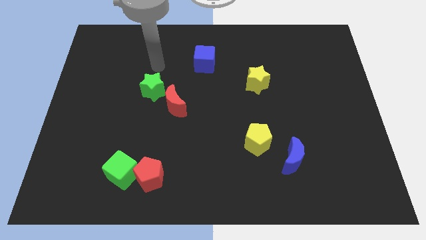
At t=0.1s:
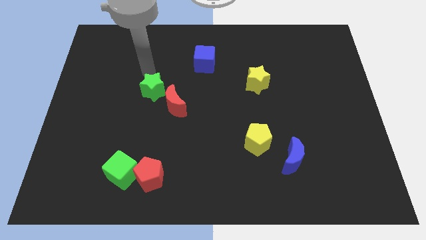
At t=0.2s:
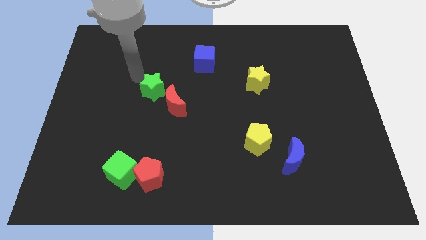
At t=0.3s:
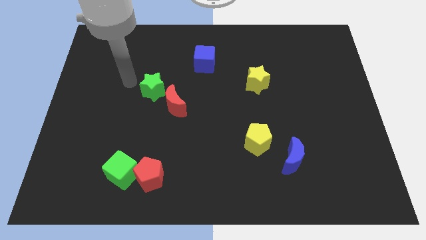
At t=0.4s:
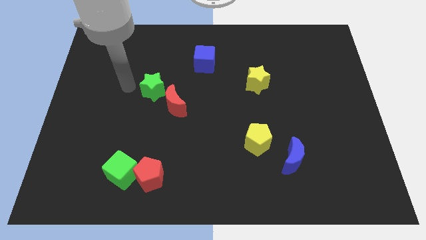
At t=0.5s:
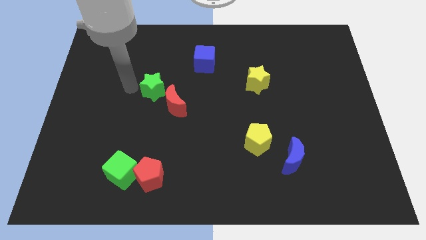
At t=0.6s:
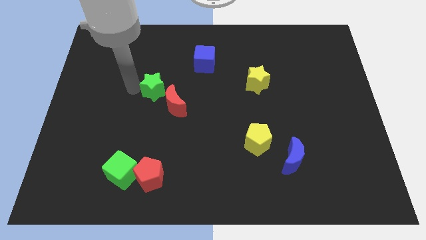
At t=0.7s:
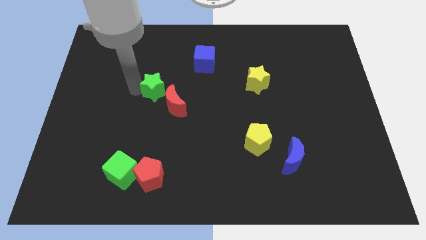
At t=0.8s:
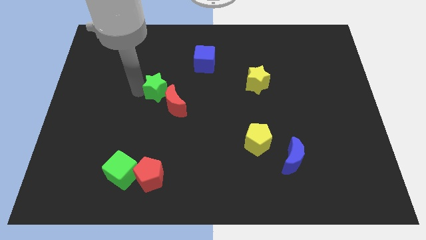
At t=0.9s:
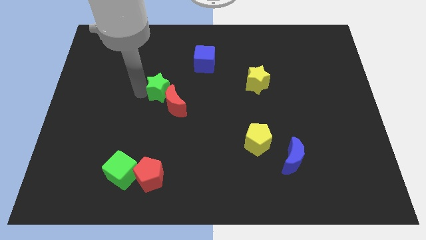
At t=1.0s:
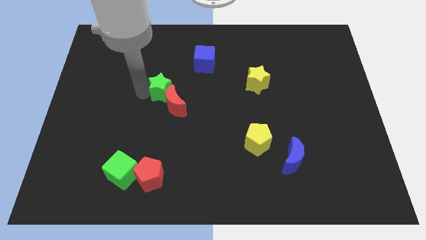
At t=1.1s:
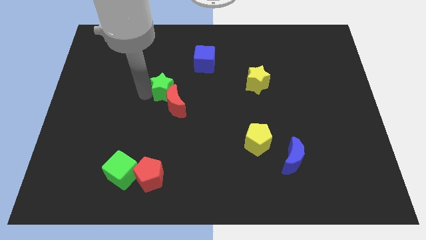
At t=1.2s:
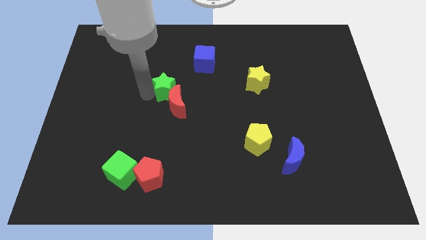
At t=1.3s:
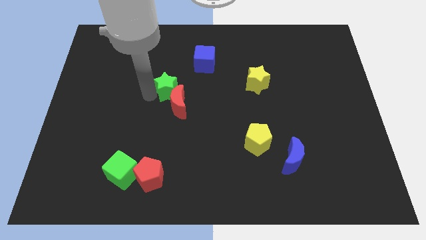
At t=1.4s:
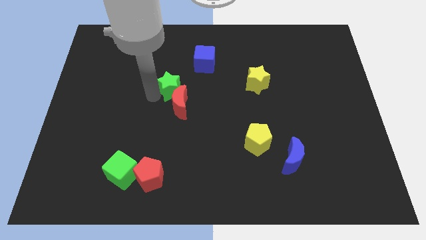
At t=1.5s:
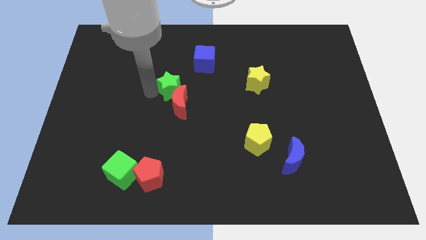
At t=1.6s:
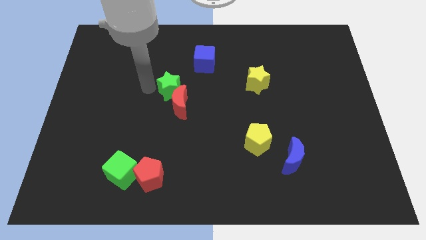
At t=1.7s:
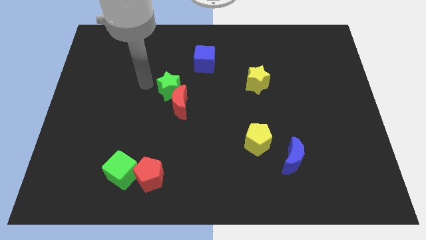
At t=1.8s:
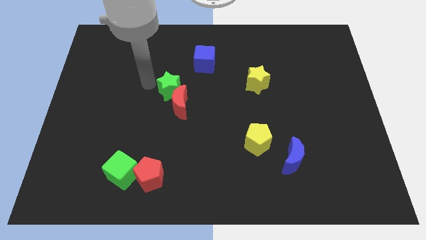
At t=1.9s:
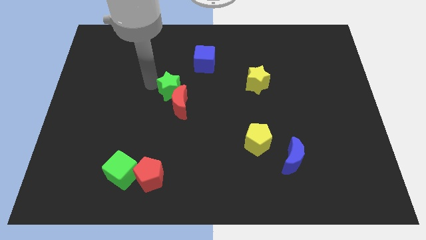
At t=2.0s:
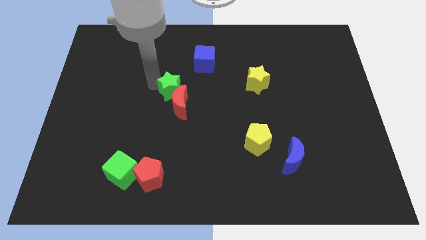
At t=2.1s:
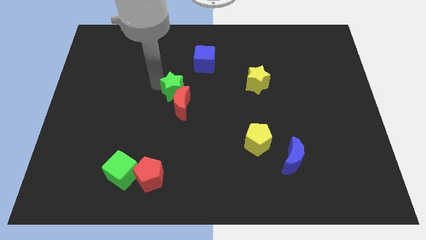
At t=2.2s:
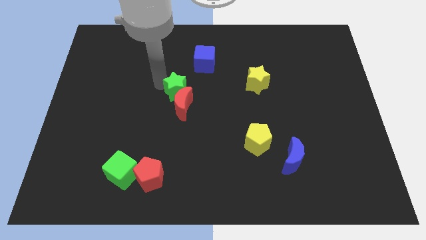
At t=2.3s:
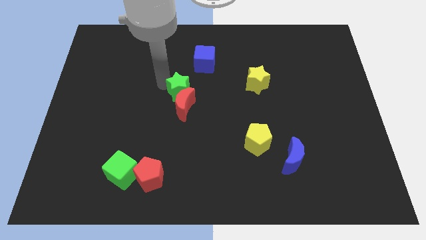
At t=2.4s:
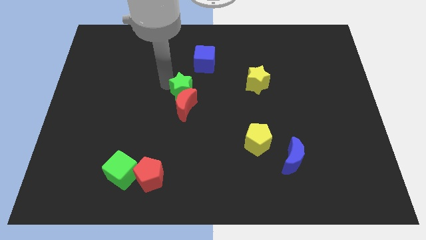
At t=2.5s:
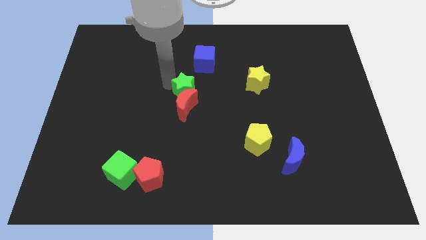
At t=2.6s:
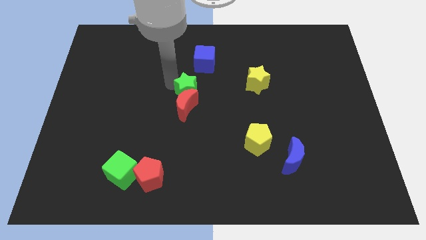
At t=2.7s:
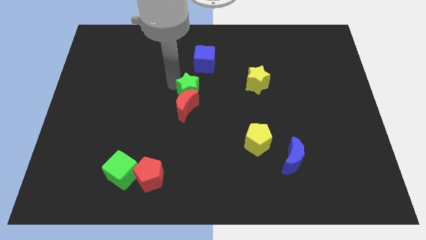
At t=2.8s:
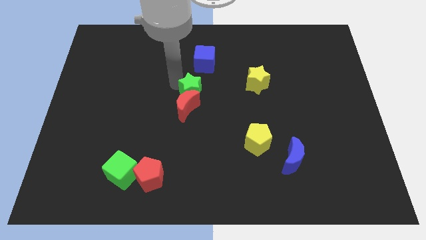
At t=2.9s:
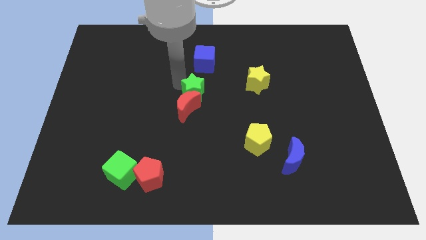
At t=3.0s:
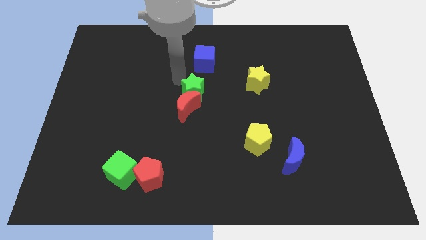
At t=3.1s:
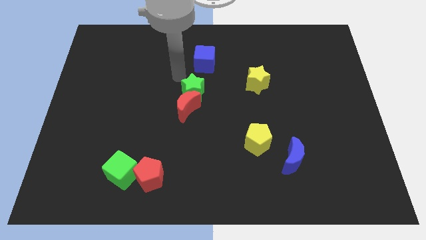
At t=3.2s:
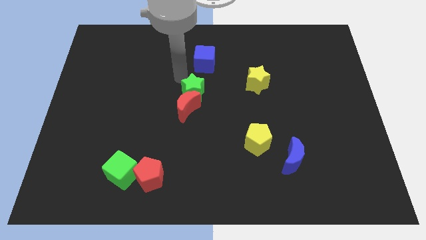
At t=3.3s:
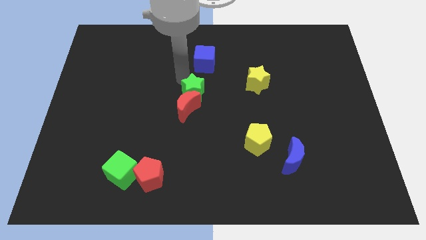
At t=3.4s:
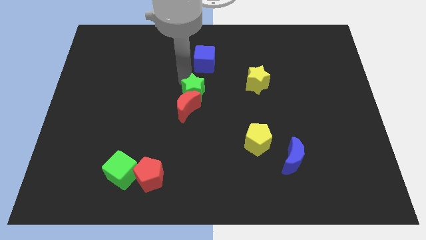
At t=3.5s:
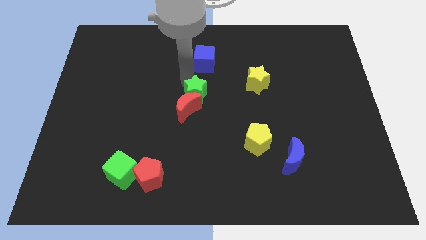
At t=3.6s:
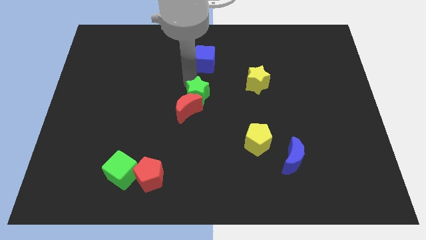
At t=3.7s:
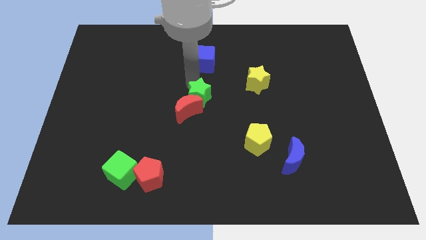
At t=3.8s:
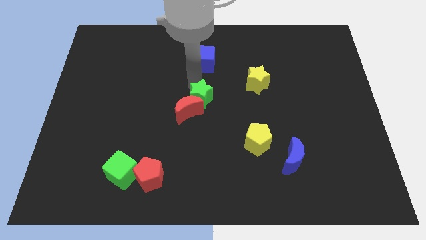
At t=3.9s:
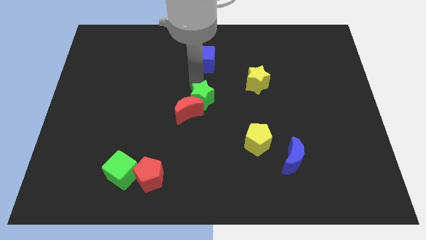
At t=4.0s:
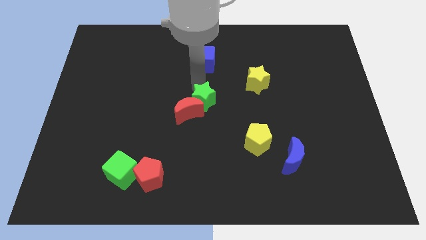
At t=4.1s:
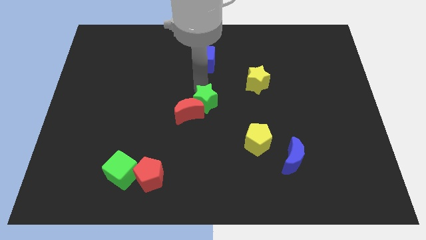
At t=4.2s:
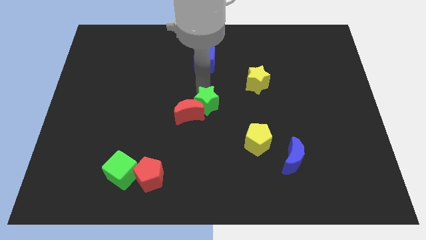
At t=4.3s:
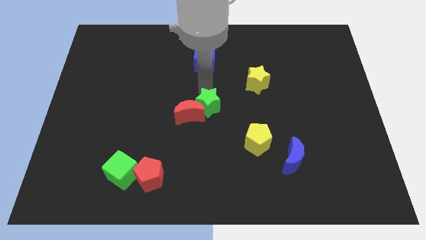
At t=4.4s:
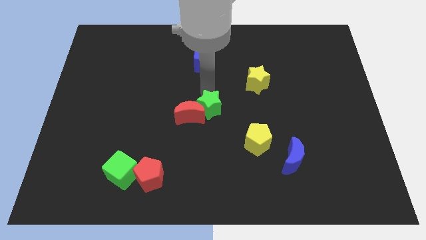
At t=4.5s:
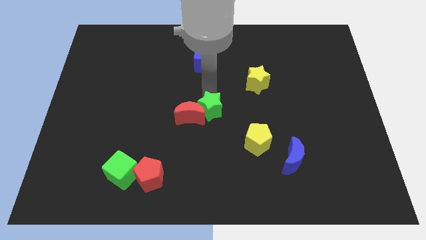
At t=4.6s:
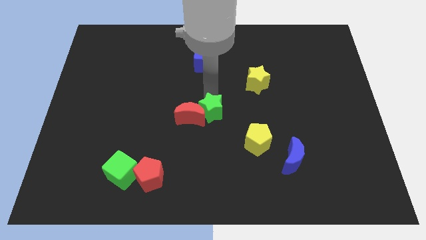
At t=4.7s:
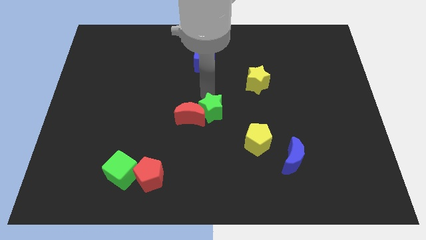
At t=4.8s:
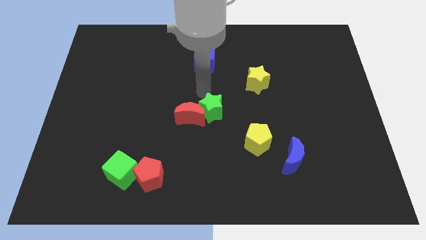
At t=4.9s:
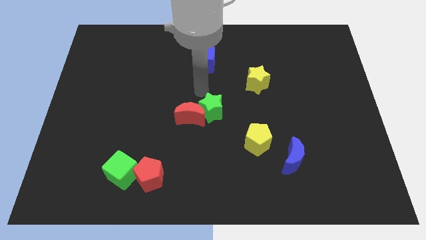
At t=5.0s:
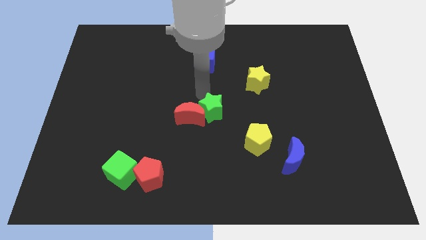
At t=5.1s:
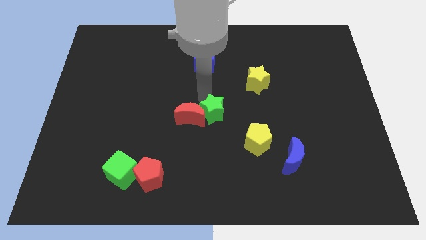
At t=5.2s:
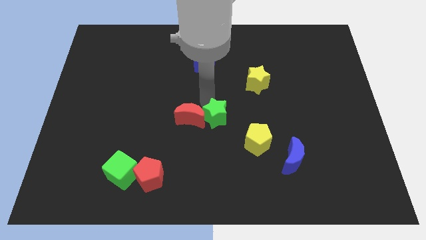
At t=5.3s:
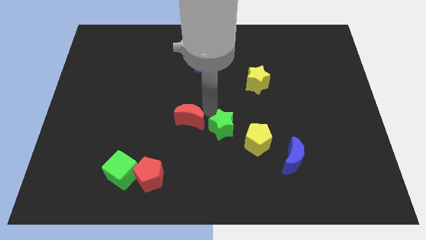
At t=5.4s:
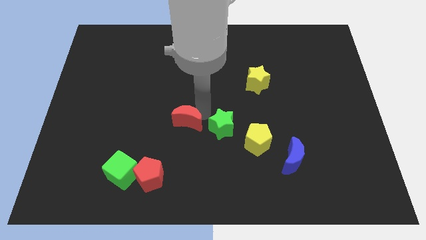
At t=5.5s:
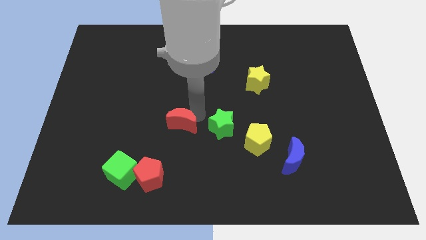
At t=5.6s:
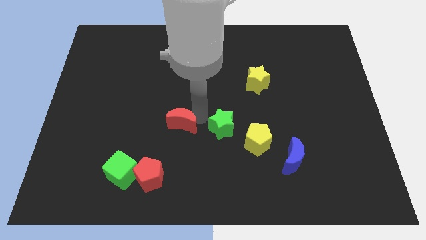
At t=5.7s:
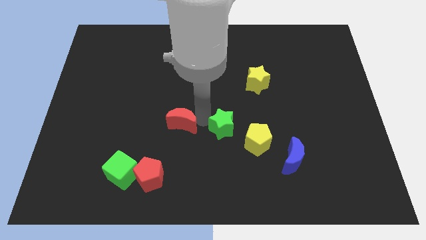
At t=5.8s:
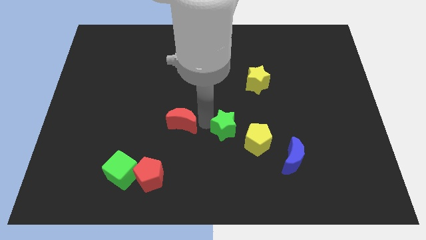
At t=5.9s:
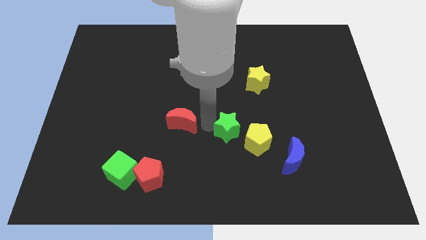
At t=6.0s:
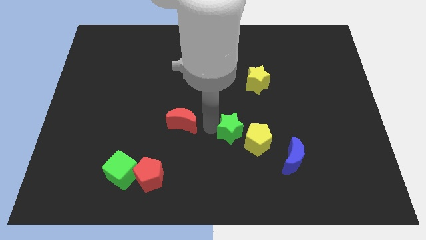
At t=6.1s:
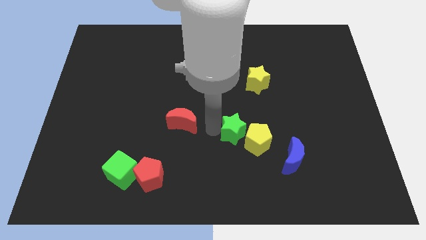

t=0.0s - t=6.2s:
put the green star close to the yellow pentagon

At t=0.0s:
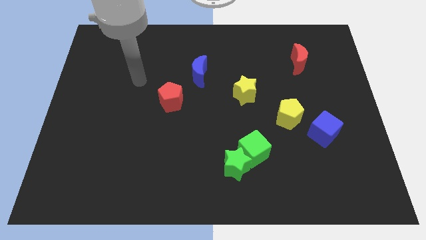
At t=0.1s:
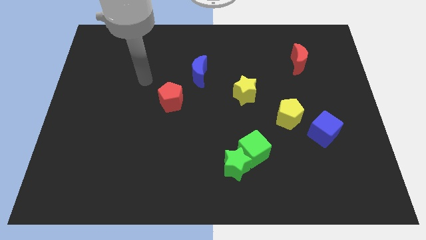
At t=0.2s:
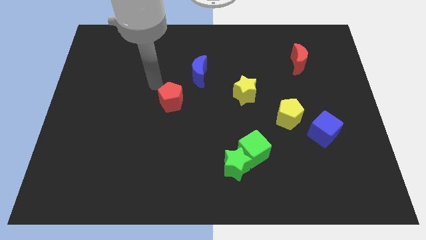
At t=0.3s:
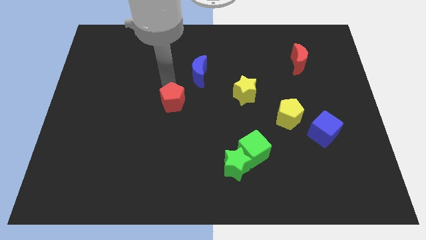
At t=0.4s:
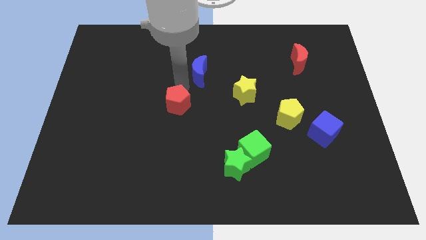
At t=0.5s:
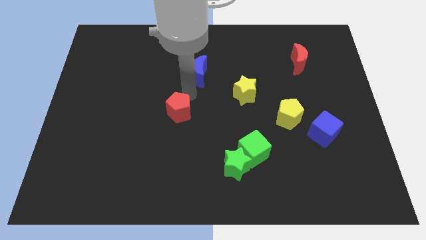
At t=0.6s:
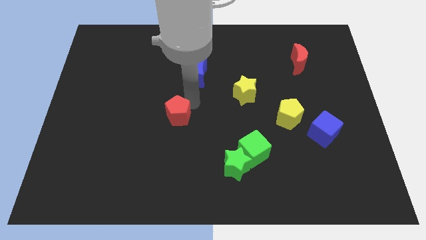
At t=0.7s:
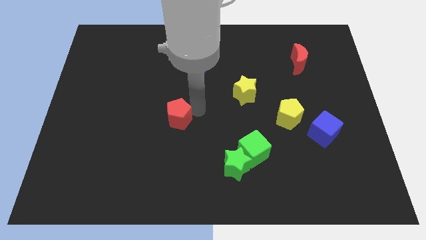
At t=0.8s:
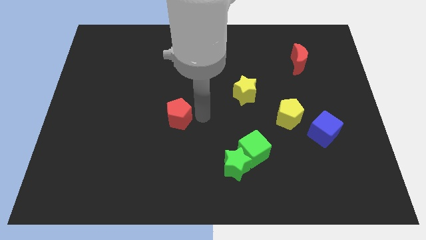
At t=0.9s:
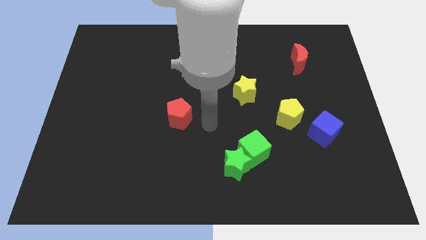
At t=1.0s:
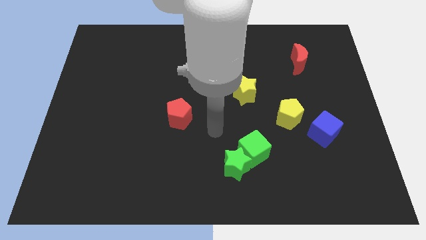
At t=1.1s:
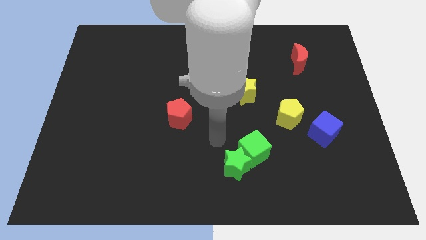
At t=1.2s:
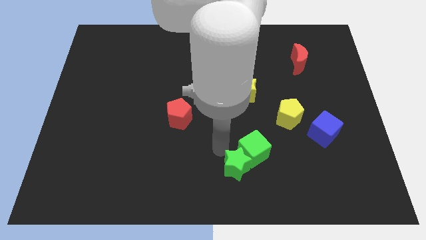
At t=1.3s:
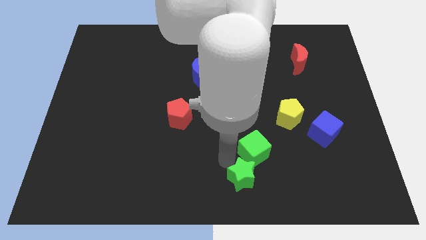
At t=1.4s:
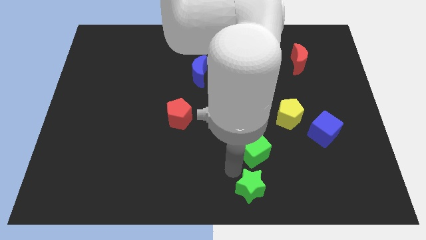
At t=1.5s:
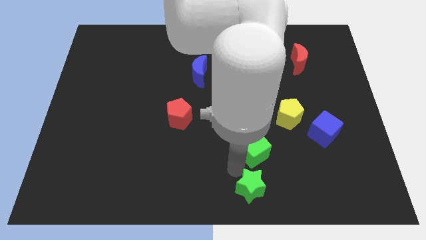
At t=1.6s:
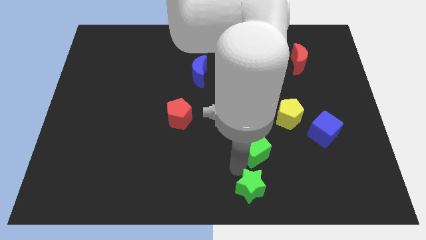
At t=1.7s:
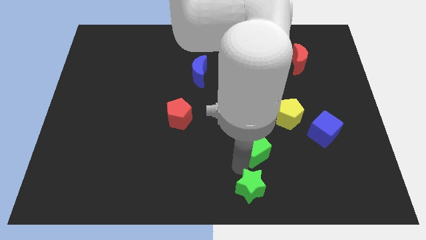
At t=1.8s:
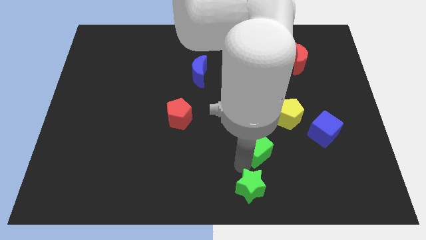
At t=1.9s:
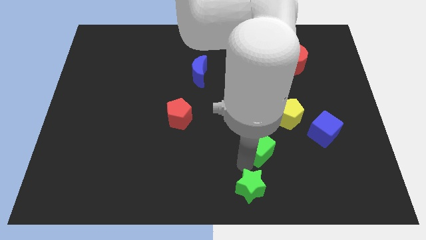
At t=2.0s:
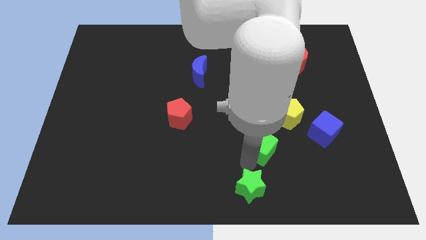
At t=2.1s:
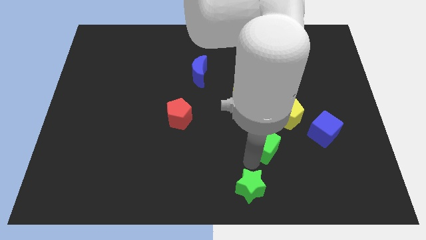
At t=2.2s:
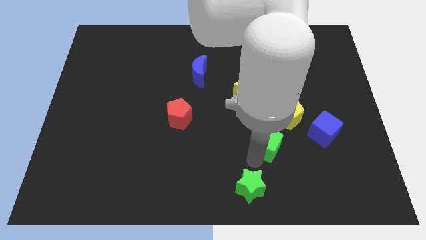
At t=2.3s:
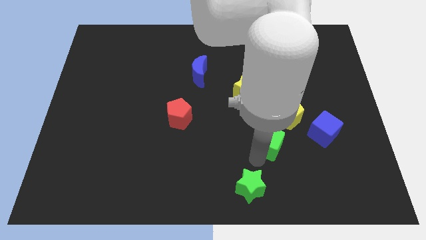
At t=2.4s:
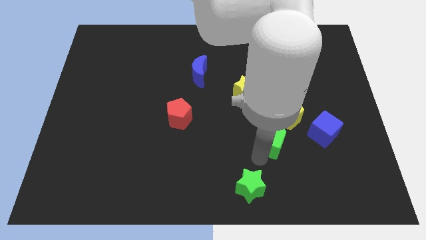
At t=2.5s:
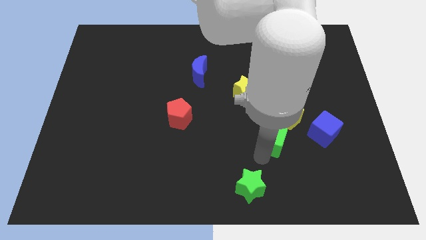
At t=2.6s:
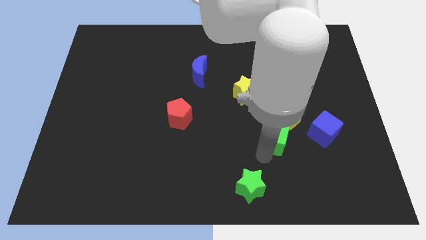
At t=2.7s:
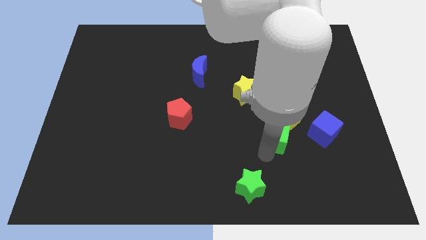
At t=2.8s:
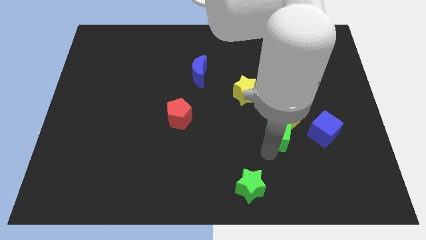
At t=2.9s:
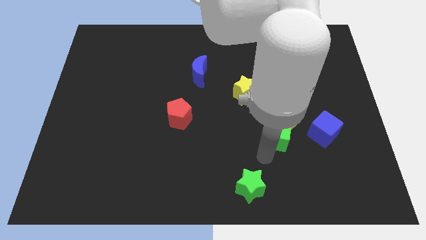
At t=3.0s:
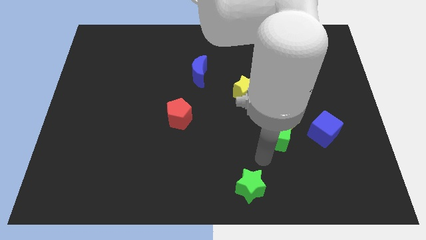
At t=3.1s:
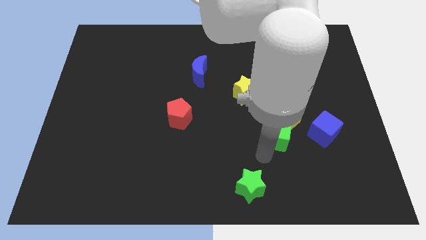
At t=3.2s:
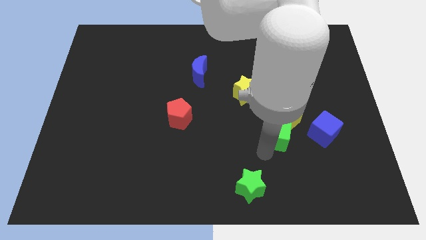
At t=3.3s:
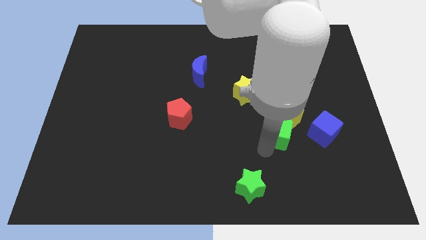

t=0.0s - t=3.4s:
move the green cube next to the yellow pentagon
